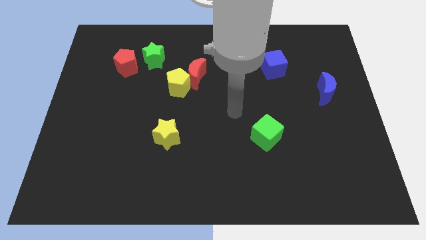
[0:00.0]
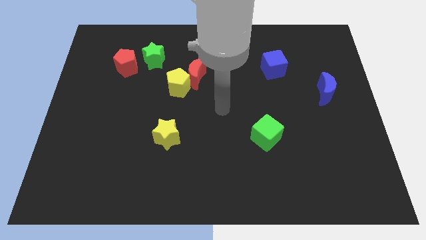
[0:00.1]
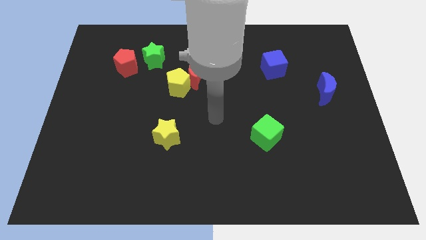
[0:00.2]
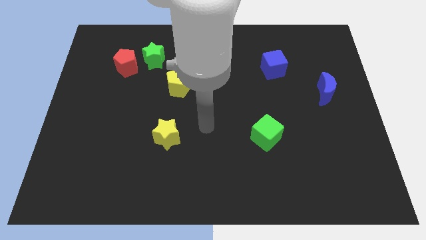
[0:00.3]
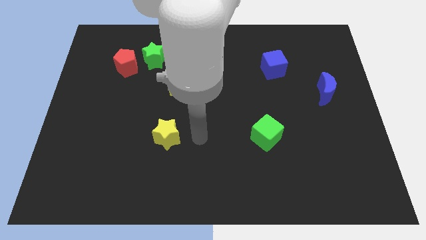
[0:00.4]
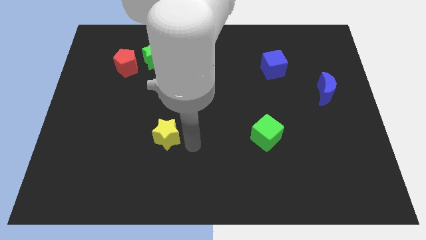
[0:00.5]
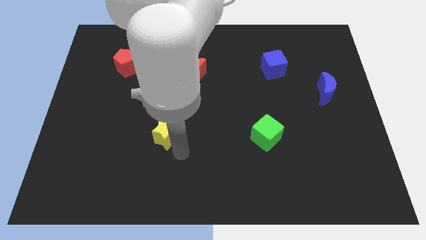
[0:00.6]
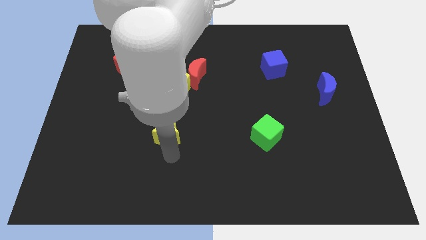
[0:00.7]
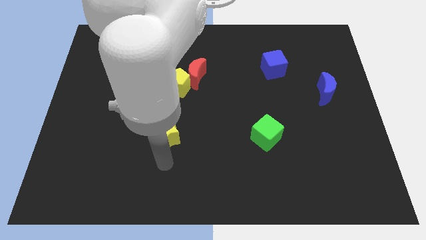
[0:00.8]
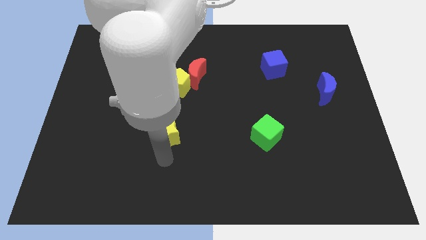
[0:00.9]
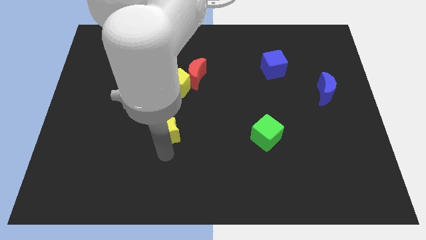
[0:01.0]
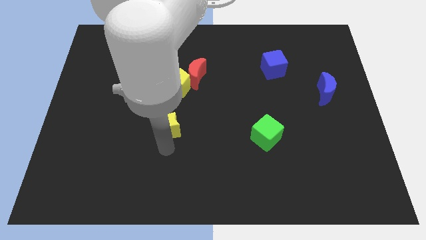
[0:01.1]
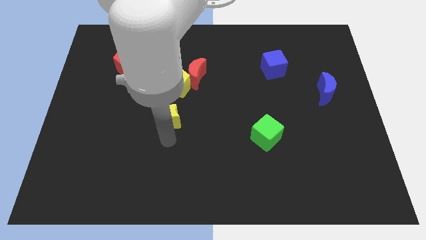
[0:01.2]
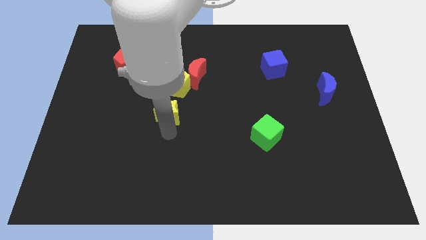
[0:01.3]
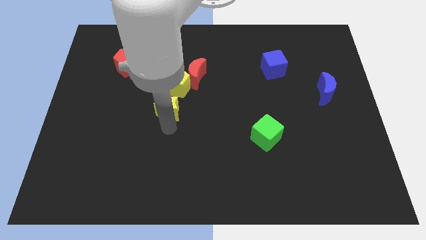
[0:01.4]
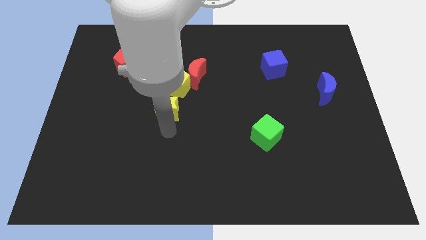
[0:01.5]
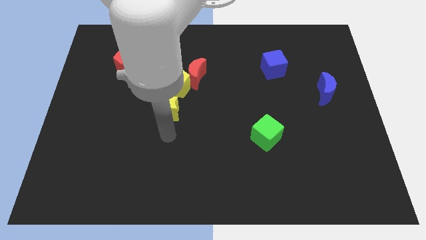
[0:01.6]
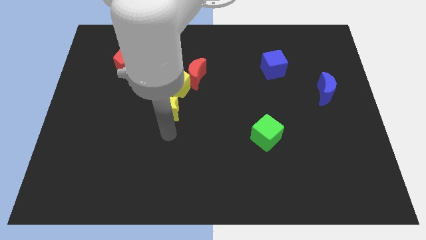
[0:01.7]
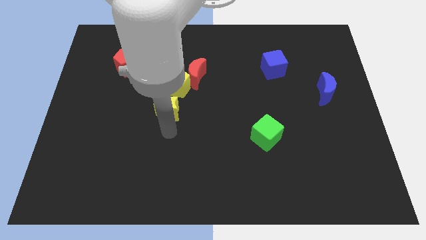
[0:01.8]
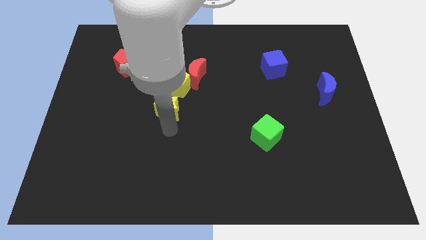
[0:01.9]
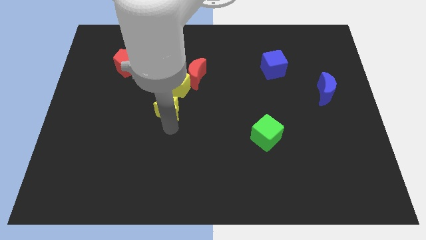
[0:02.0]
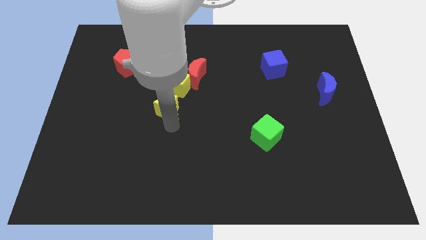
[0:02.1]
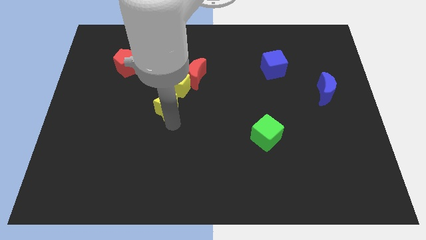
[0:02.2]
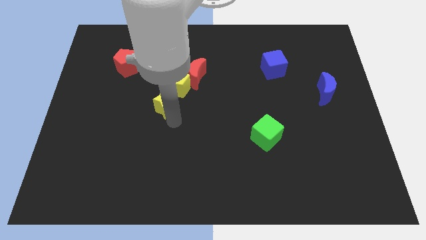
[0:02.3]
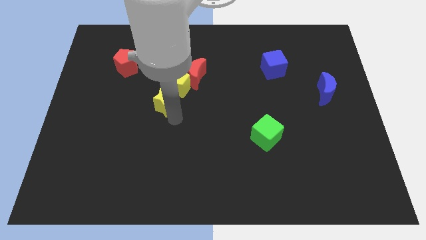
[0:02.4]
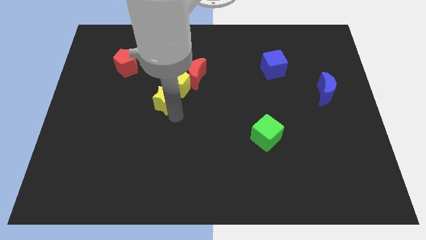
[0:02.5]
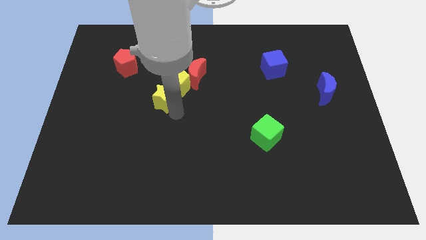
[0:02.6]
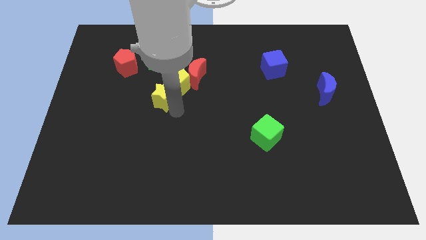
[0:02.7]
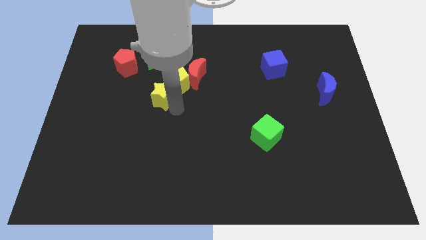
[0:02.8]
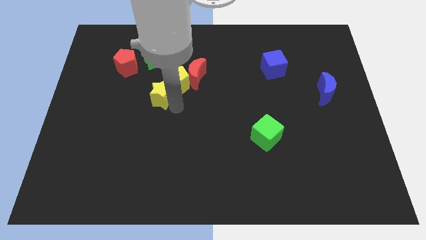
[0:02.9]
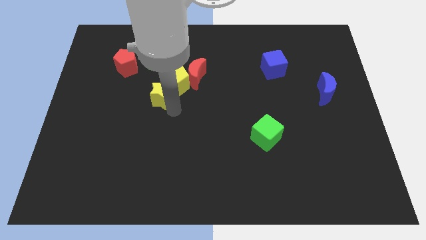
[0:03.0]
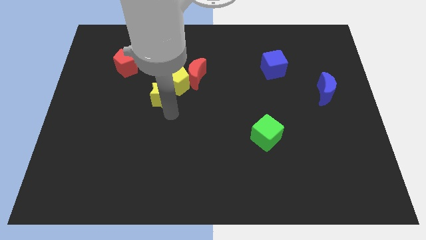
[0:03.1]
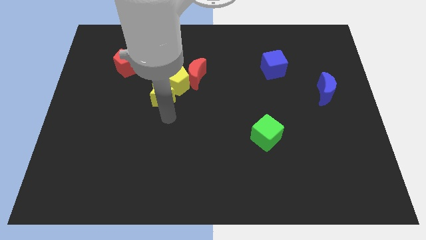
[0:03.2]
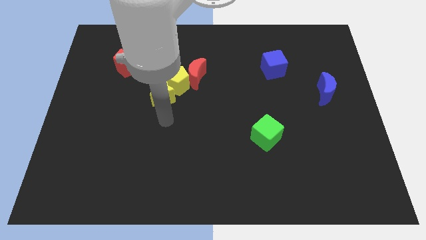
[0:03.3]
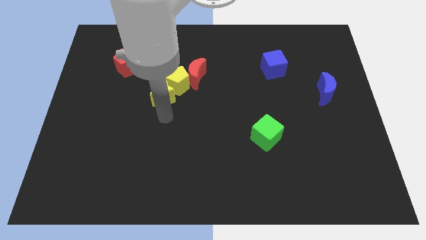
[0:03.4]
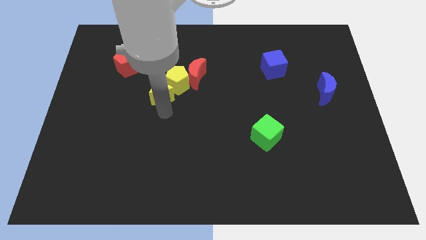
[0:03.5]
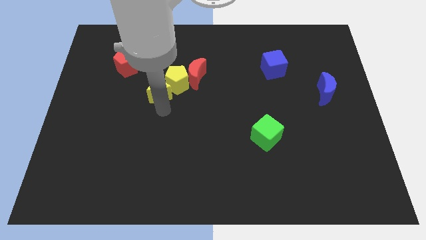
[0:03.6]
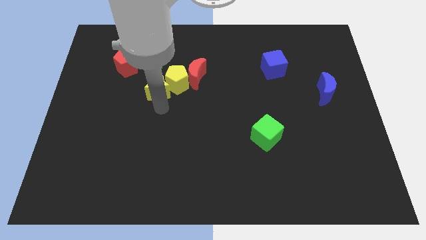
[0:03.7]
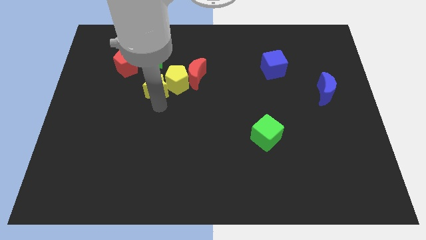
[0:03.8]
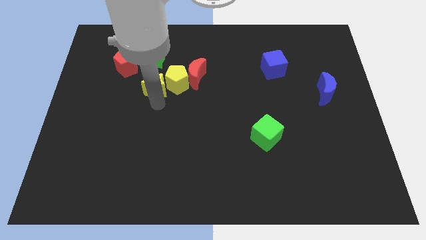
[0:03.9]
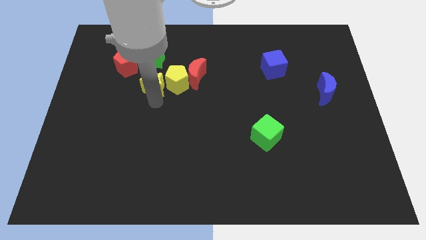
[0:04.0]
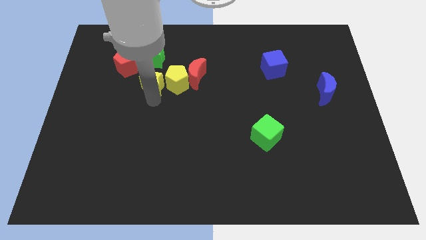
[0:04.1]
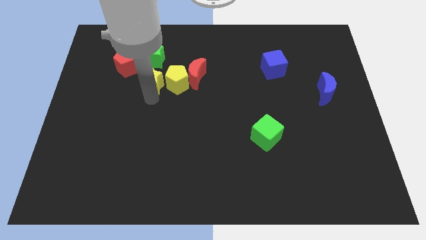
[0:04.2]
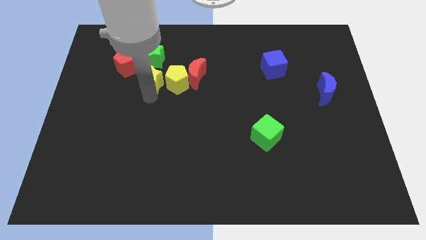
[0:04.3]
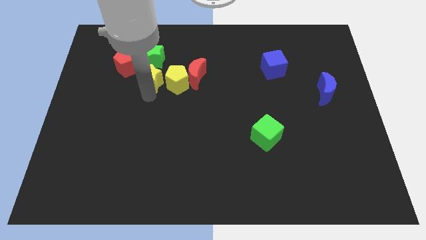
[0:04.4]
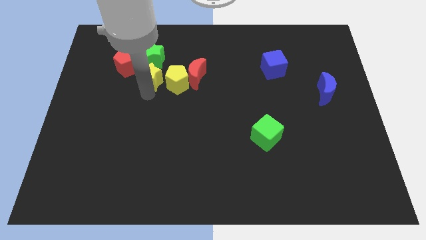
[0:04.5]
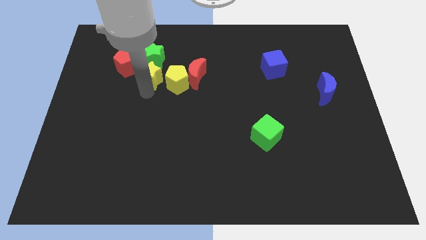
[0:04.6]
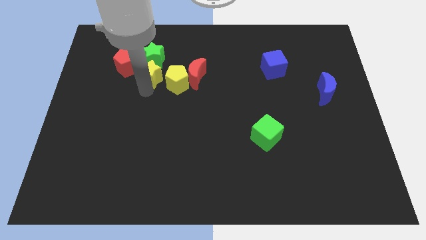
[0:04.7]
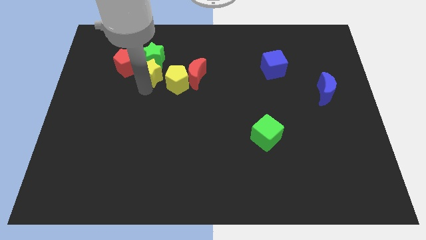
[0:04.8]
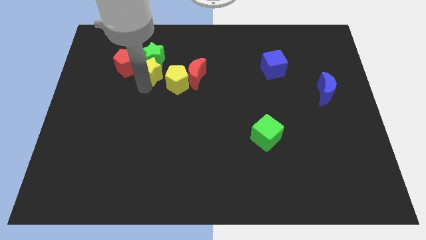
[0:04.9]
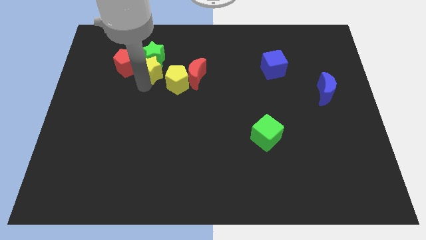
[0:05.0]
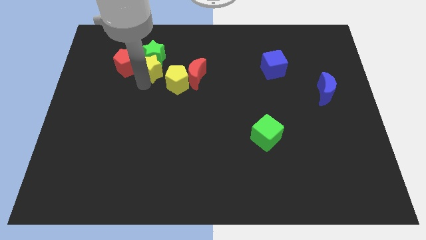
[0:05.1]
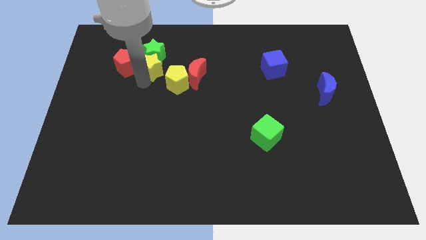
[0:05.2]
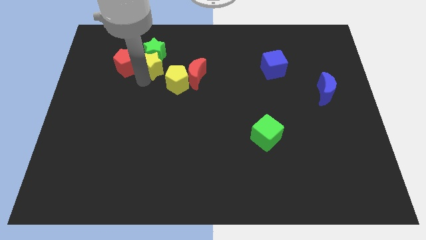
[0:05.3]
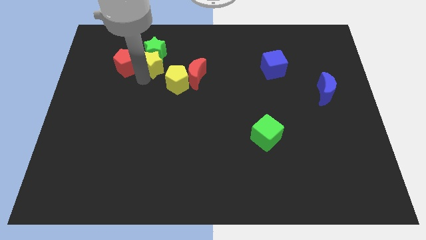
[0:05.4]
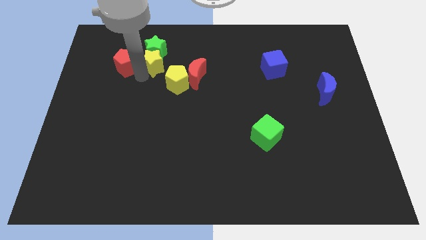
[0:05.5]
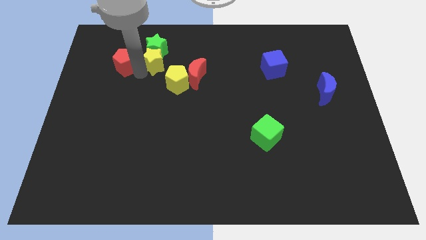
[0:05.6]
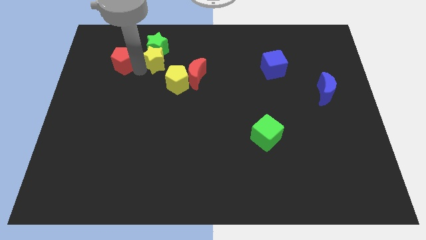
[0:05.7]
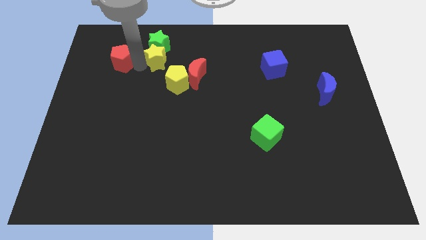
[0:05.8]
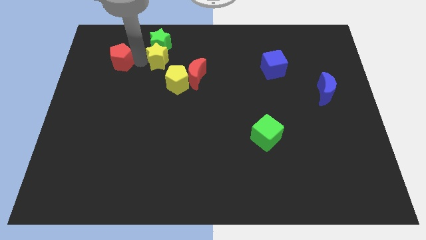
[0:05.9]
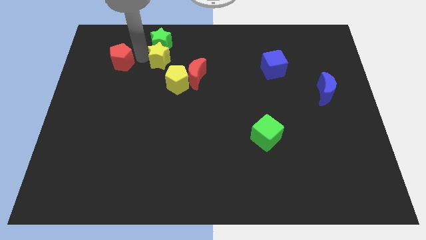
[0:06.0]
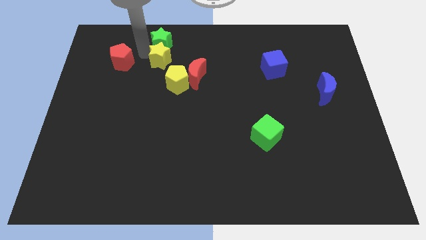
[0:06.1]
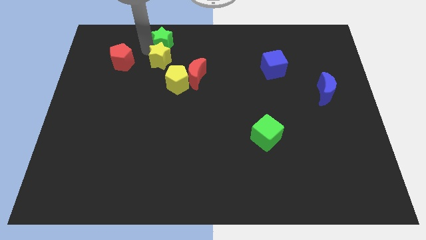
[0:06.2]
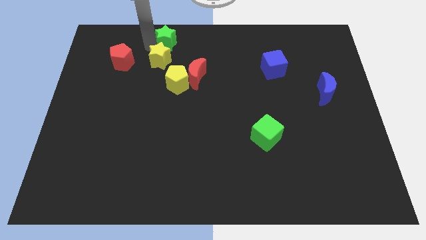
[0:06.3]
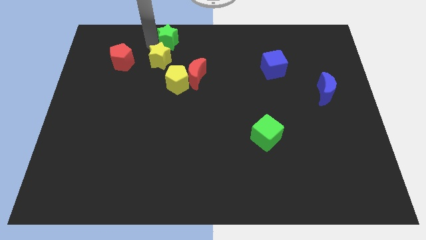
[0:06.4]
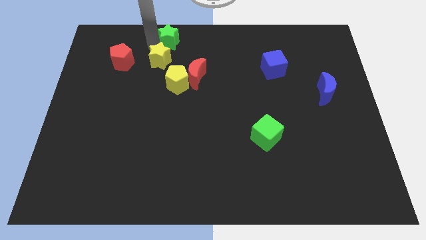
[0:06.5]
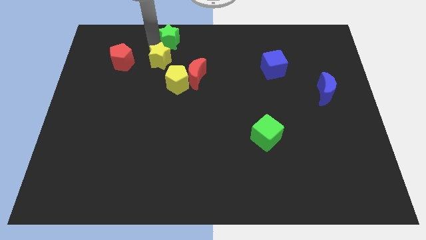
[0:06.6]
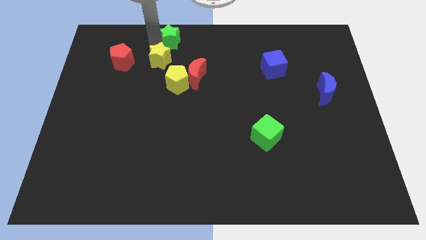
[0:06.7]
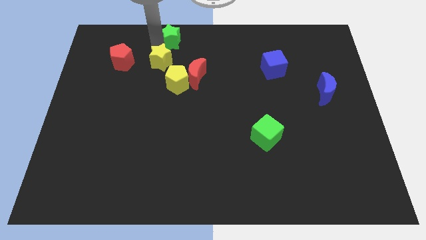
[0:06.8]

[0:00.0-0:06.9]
slide the yellow star to the top of the yellow pentagon
